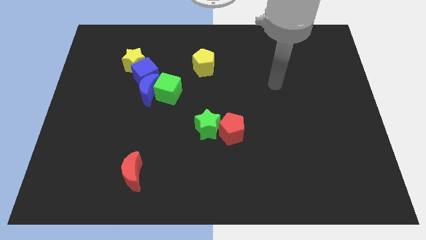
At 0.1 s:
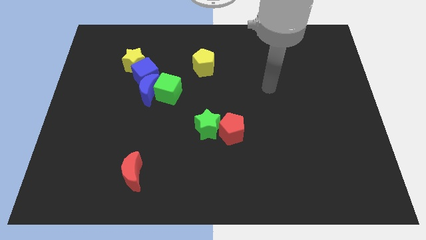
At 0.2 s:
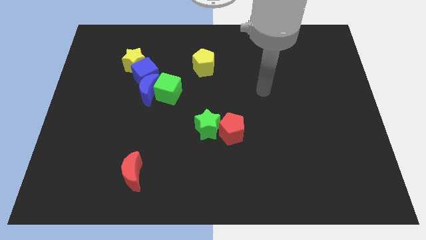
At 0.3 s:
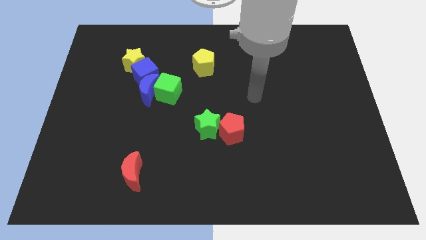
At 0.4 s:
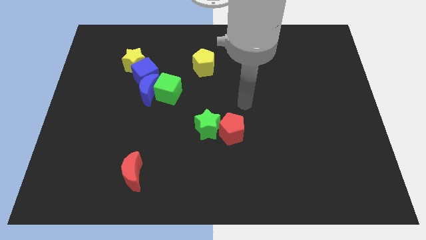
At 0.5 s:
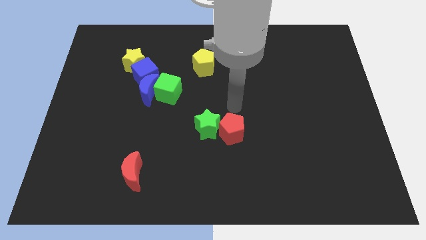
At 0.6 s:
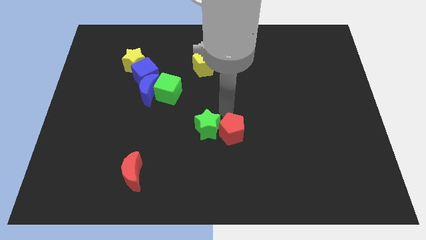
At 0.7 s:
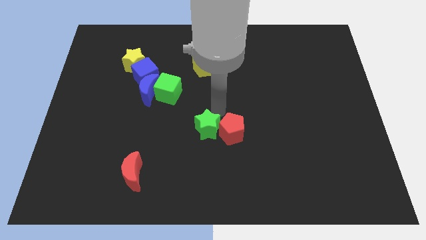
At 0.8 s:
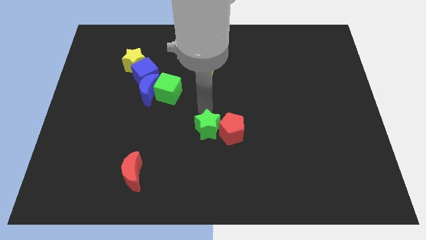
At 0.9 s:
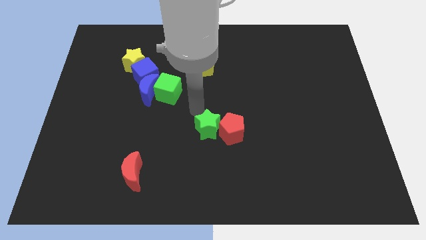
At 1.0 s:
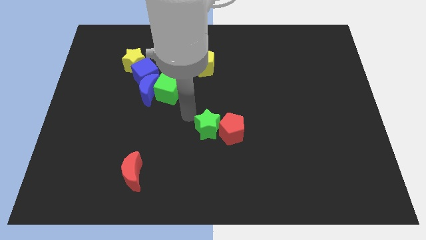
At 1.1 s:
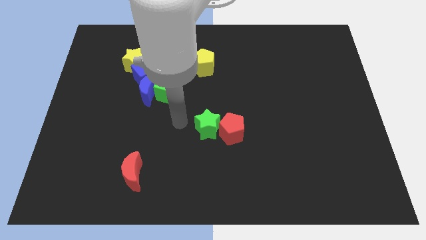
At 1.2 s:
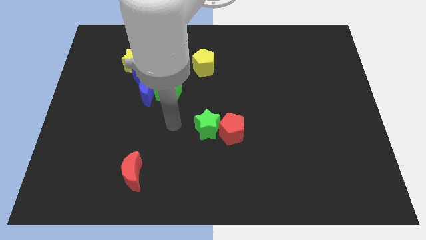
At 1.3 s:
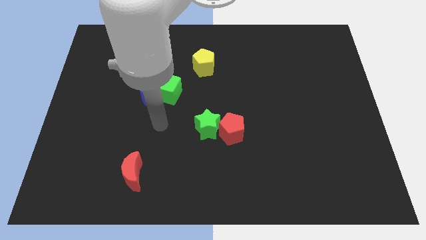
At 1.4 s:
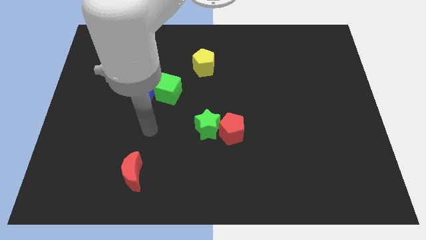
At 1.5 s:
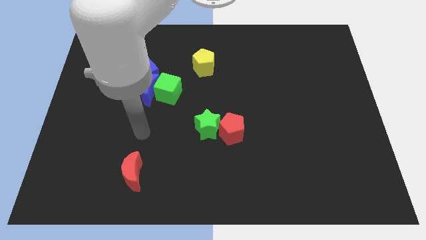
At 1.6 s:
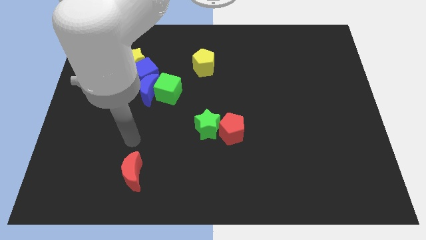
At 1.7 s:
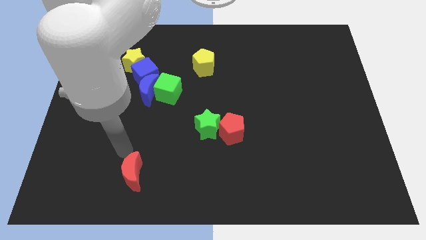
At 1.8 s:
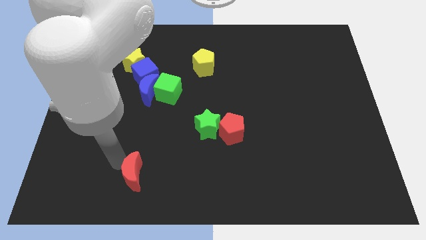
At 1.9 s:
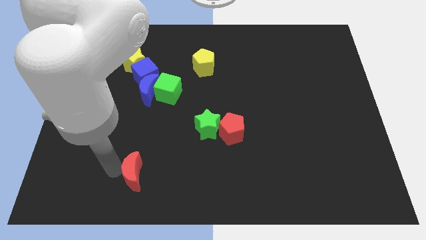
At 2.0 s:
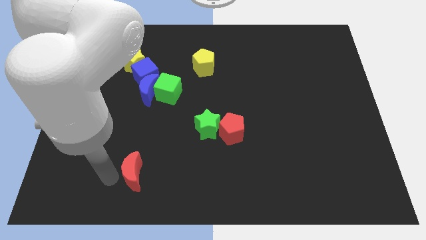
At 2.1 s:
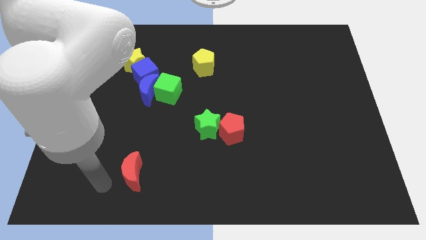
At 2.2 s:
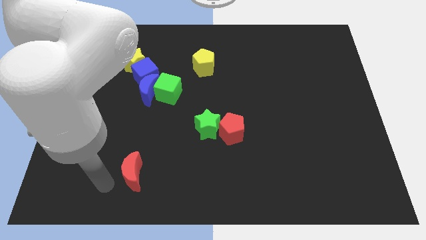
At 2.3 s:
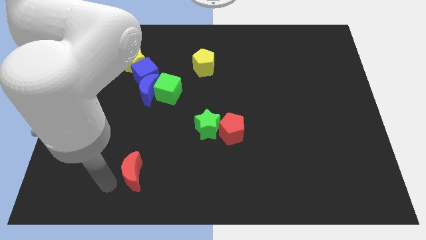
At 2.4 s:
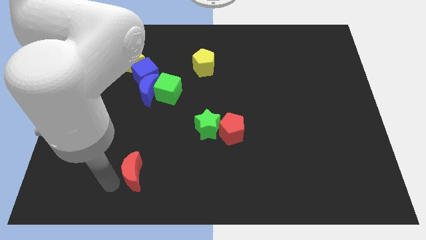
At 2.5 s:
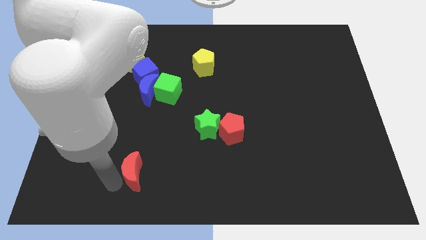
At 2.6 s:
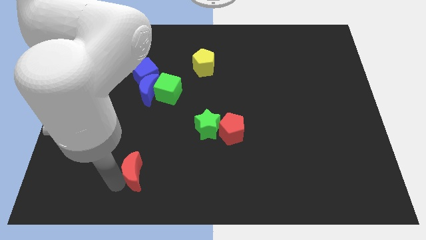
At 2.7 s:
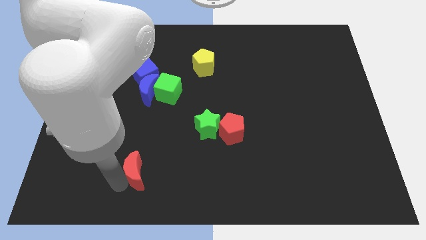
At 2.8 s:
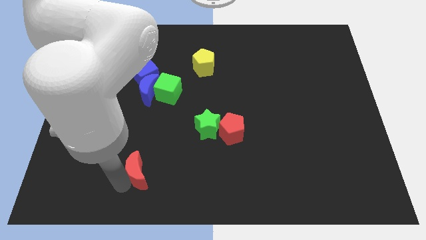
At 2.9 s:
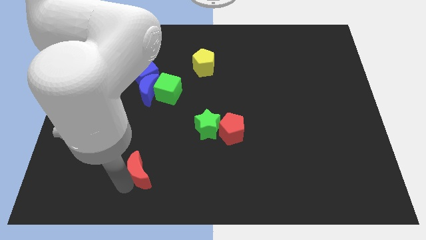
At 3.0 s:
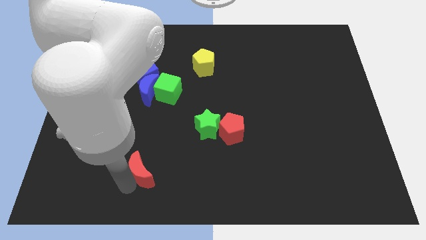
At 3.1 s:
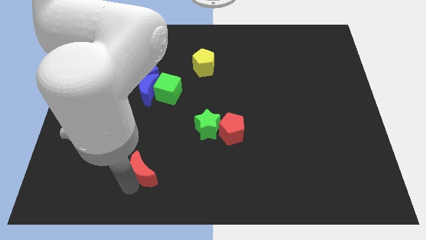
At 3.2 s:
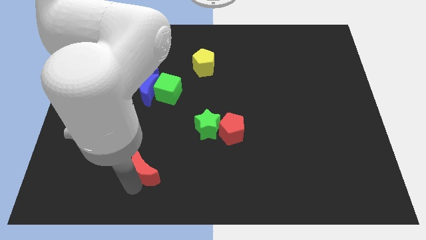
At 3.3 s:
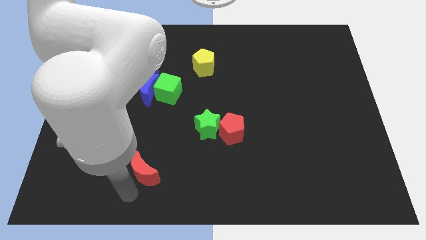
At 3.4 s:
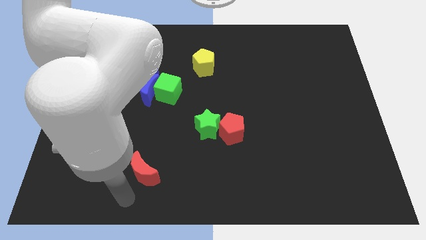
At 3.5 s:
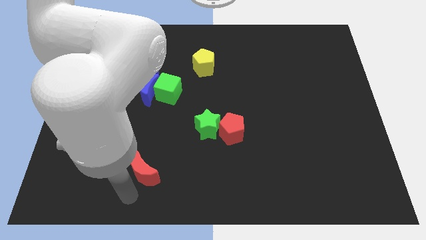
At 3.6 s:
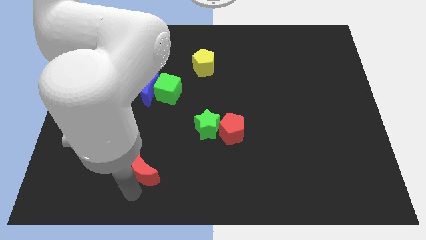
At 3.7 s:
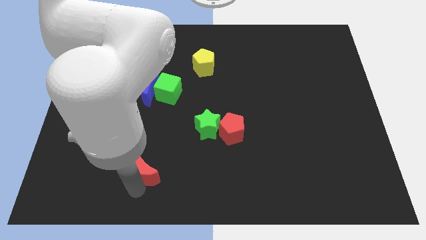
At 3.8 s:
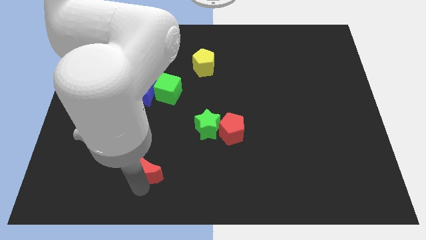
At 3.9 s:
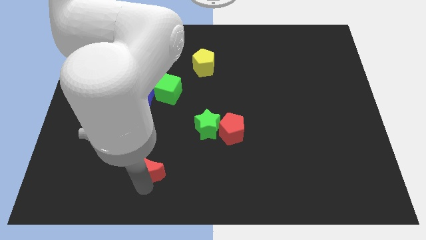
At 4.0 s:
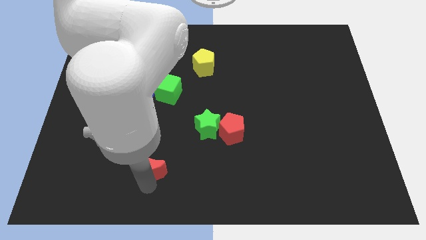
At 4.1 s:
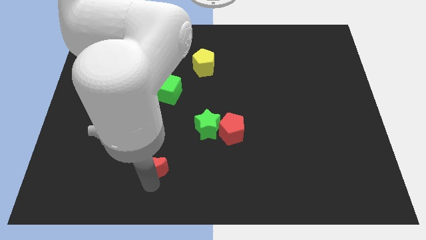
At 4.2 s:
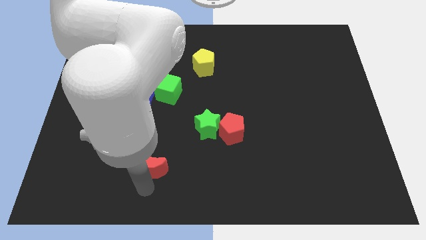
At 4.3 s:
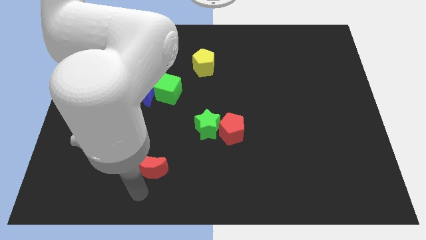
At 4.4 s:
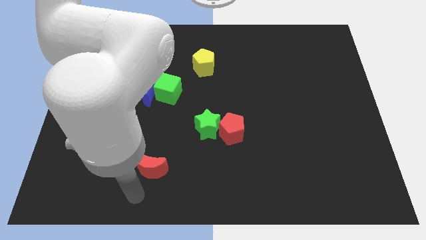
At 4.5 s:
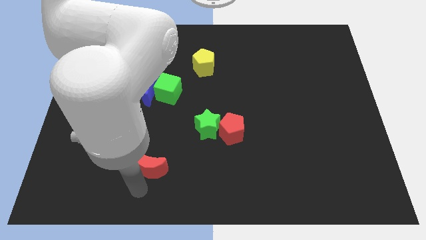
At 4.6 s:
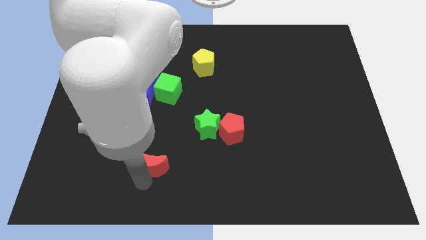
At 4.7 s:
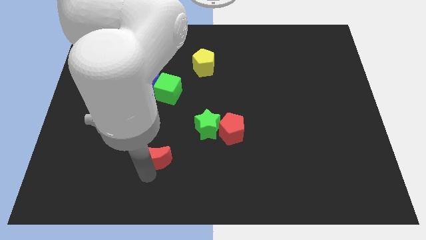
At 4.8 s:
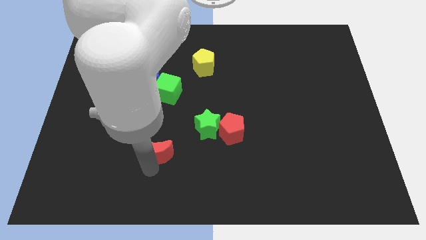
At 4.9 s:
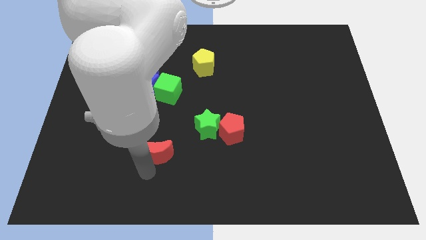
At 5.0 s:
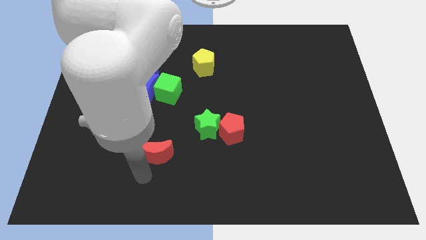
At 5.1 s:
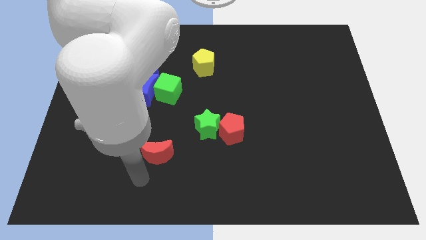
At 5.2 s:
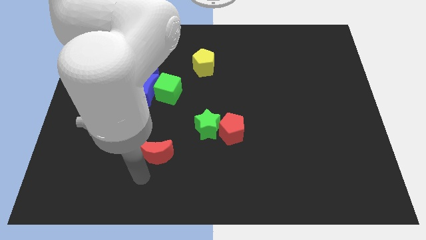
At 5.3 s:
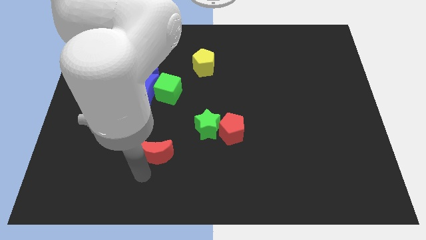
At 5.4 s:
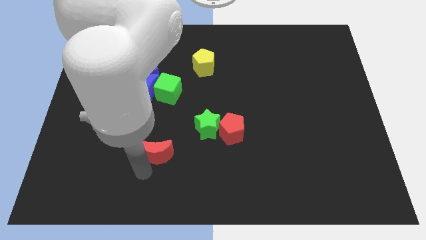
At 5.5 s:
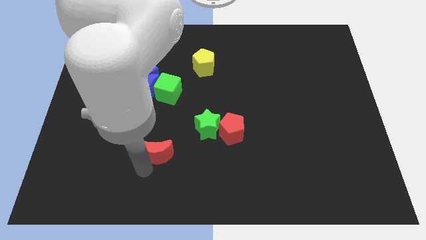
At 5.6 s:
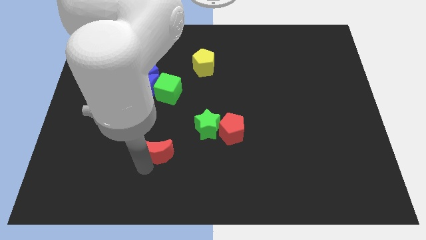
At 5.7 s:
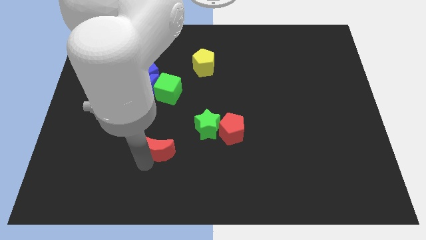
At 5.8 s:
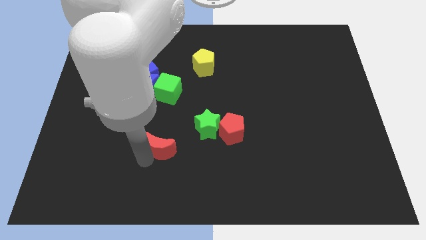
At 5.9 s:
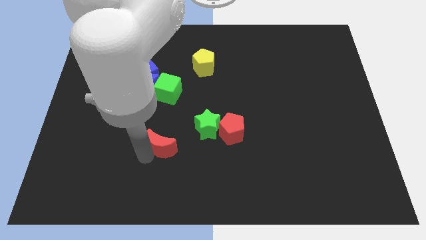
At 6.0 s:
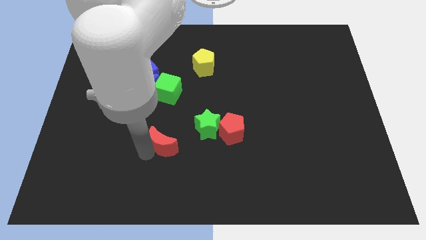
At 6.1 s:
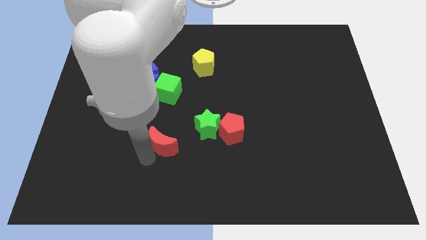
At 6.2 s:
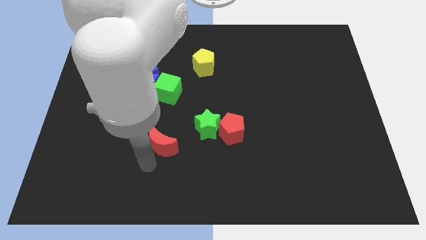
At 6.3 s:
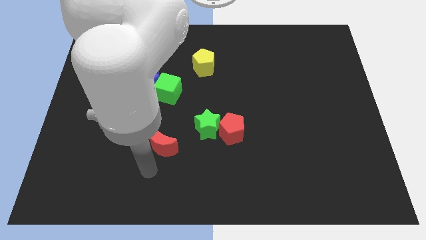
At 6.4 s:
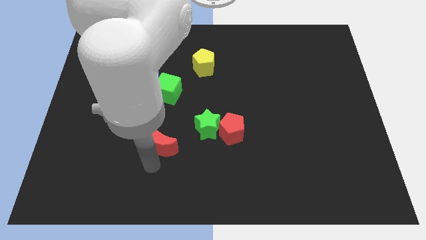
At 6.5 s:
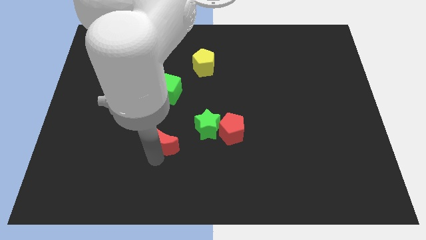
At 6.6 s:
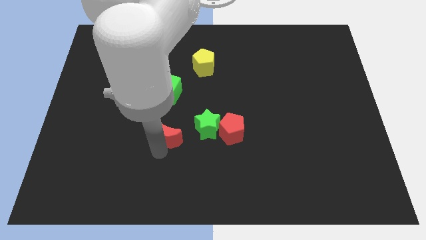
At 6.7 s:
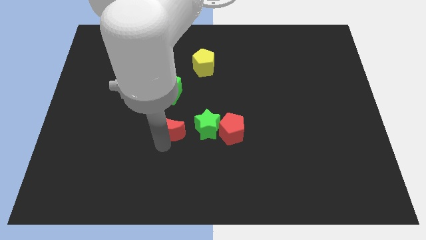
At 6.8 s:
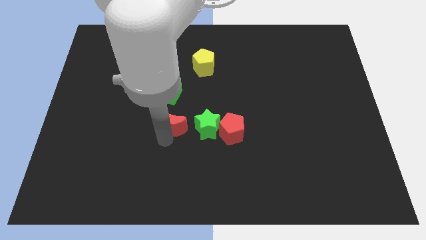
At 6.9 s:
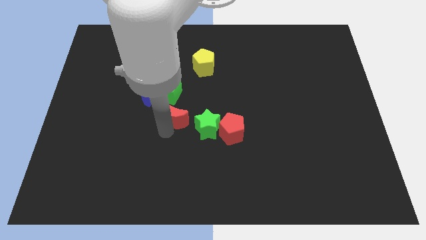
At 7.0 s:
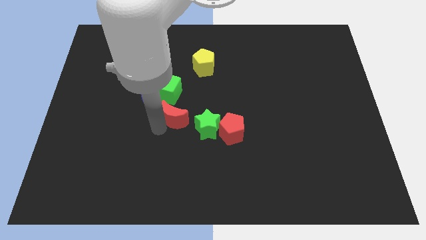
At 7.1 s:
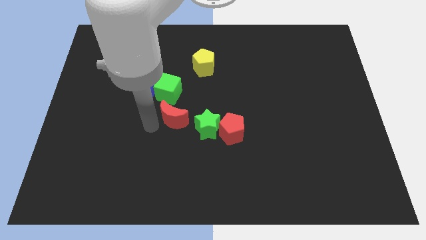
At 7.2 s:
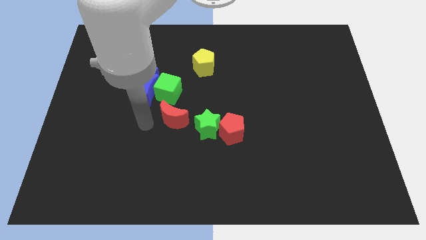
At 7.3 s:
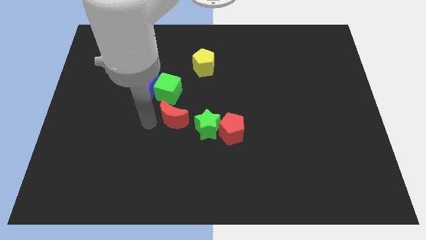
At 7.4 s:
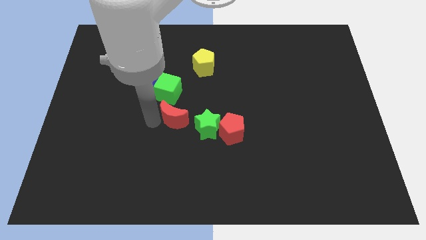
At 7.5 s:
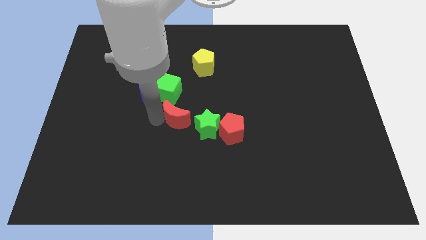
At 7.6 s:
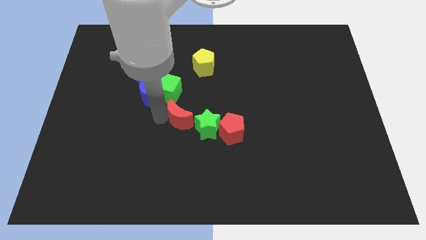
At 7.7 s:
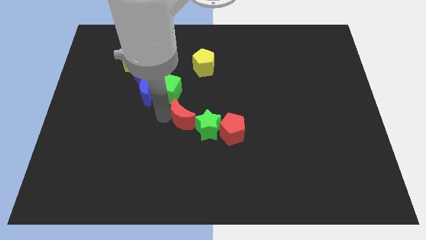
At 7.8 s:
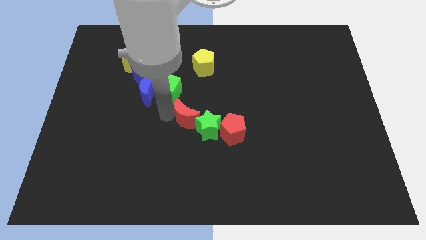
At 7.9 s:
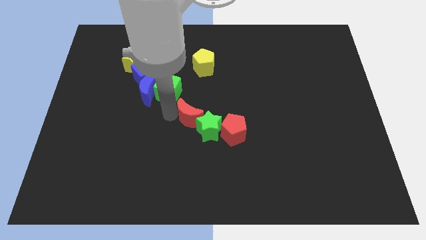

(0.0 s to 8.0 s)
put the red moon to the top left side of the red pentagon
